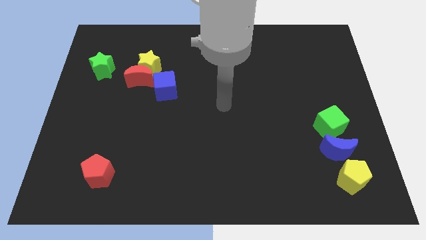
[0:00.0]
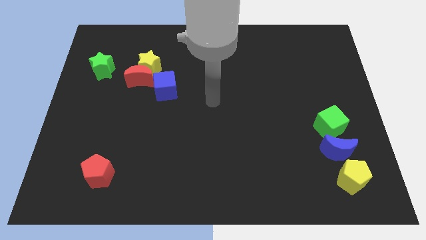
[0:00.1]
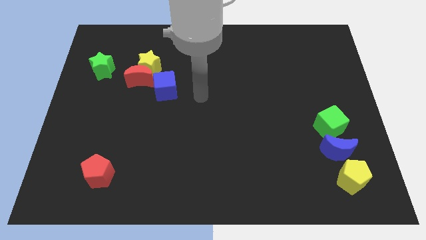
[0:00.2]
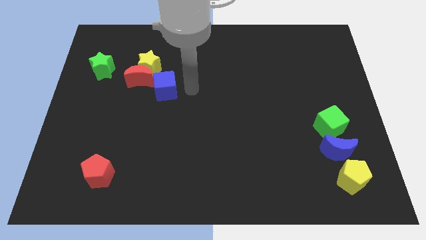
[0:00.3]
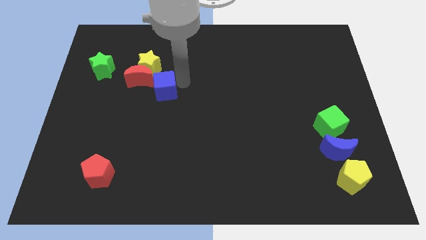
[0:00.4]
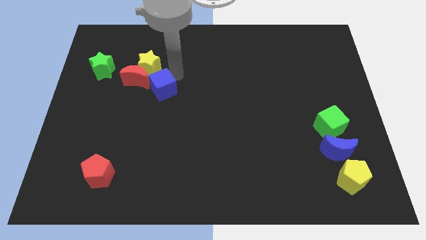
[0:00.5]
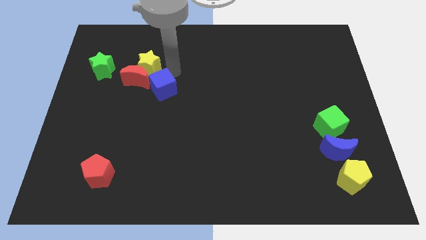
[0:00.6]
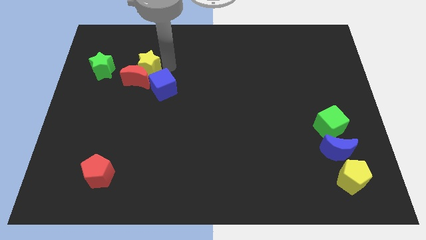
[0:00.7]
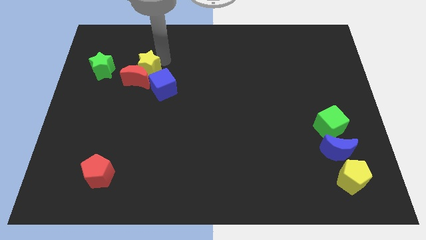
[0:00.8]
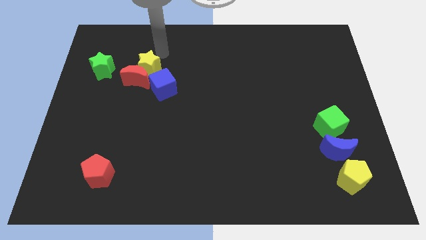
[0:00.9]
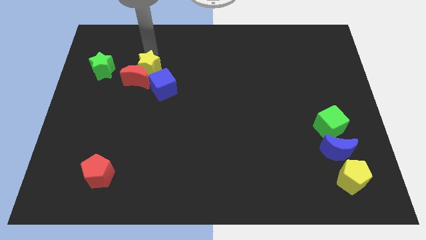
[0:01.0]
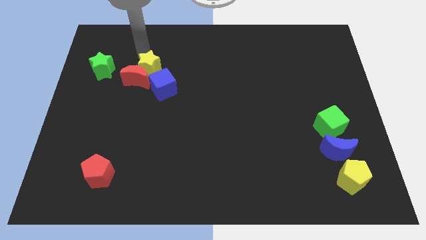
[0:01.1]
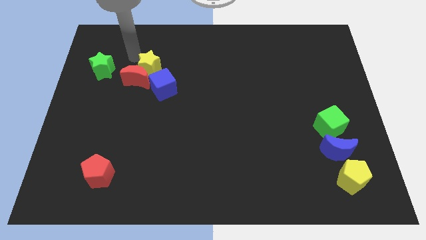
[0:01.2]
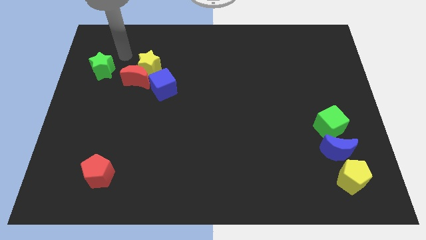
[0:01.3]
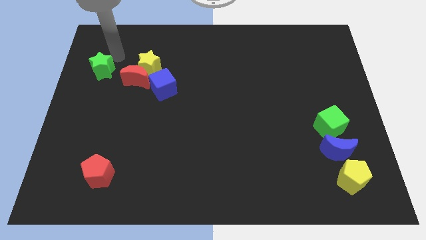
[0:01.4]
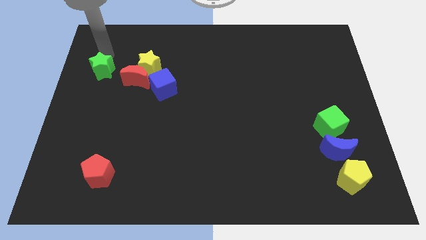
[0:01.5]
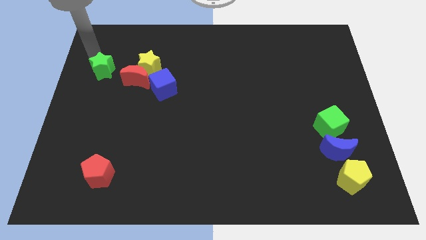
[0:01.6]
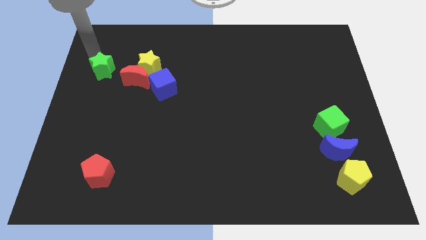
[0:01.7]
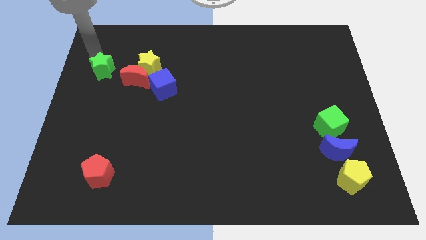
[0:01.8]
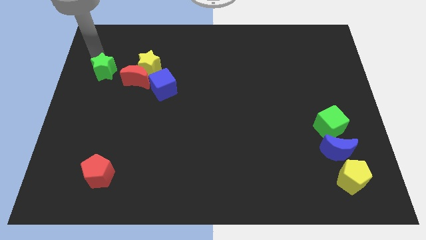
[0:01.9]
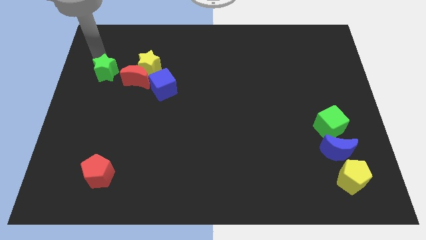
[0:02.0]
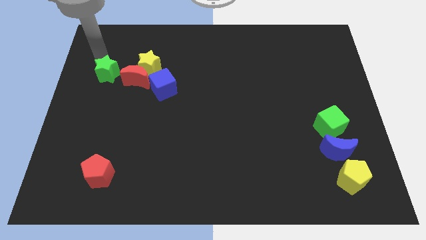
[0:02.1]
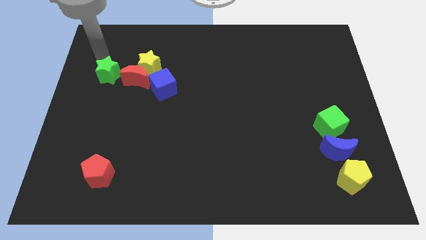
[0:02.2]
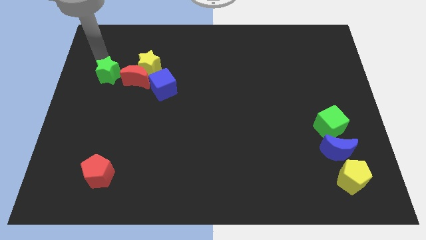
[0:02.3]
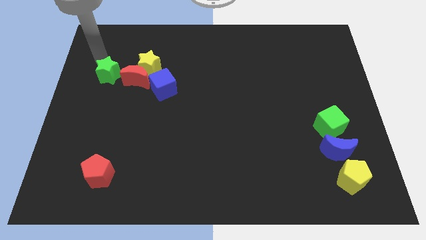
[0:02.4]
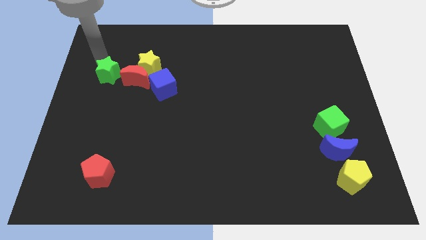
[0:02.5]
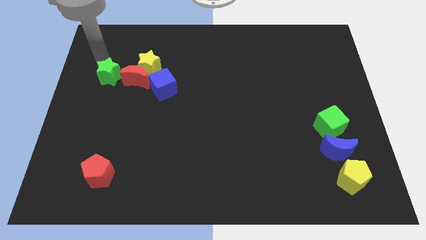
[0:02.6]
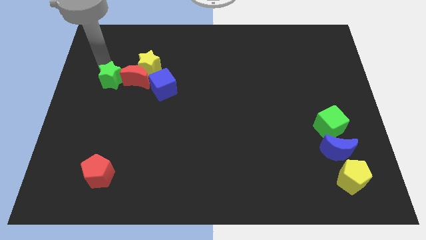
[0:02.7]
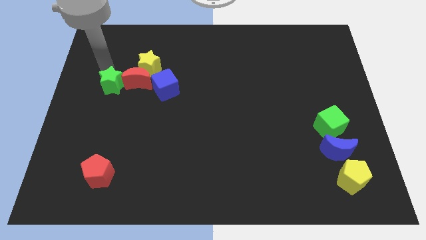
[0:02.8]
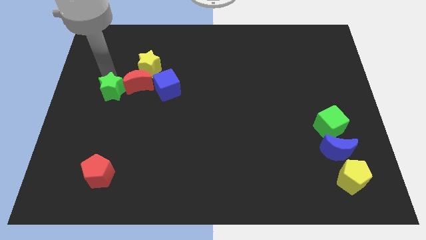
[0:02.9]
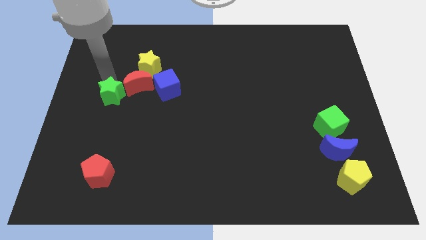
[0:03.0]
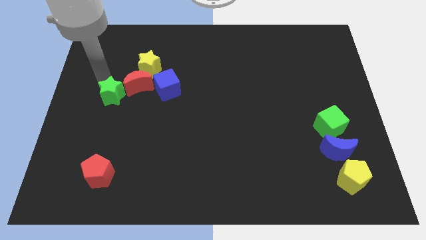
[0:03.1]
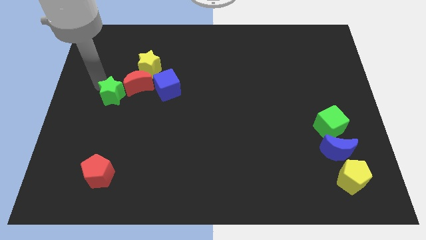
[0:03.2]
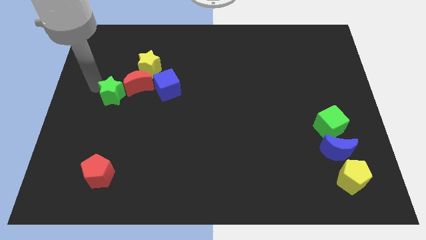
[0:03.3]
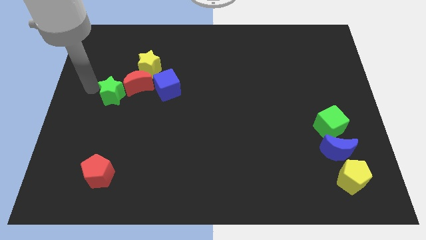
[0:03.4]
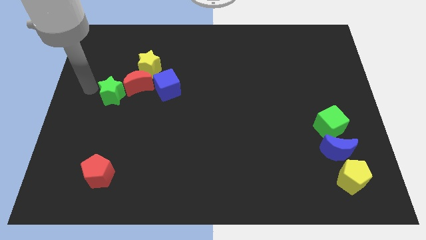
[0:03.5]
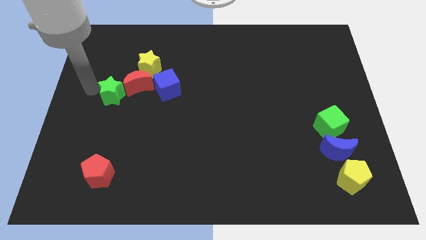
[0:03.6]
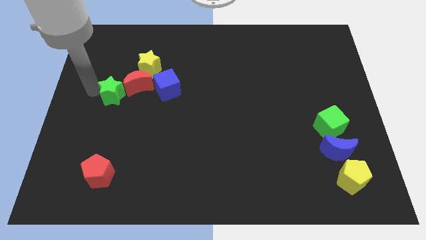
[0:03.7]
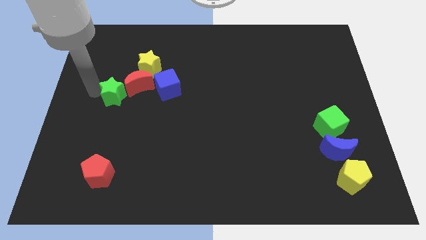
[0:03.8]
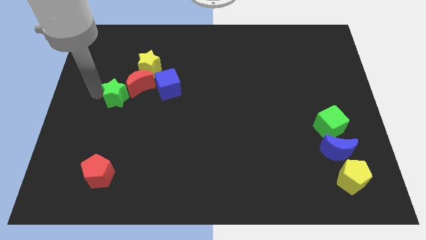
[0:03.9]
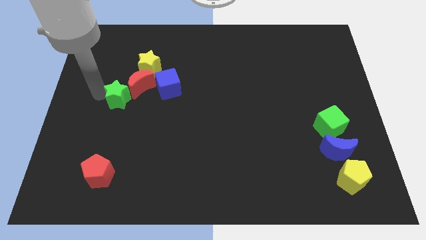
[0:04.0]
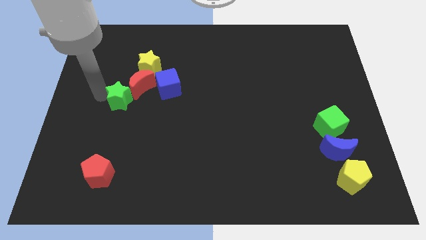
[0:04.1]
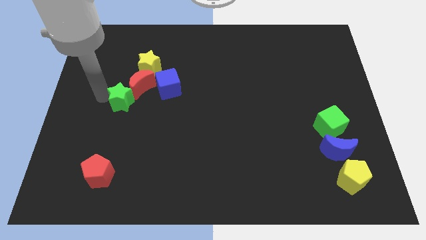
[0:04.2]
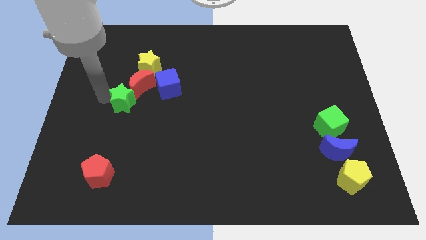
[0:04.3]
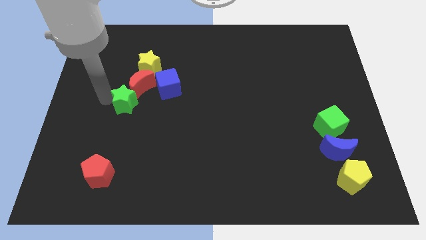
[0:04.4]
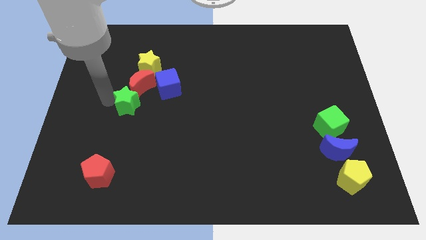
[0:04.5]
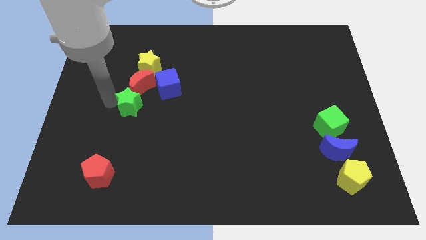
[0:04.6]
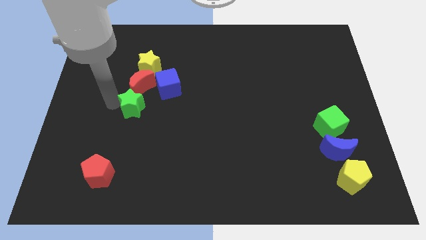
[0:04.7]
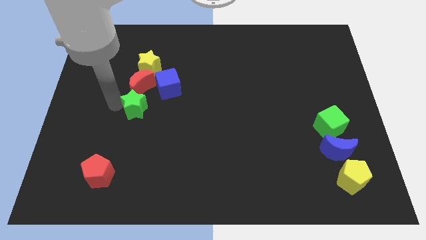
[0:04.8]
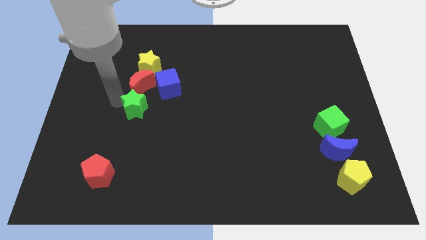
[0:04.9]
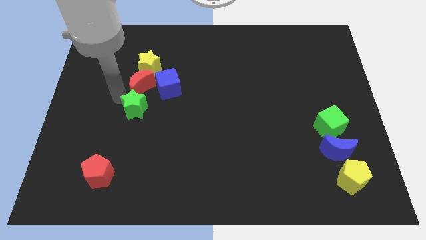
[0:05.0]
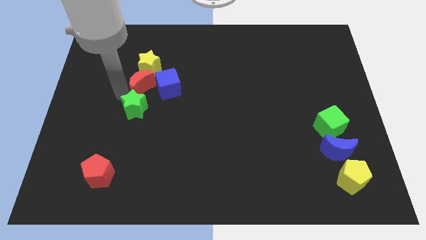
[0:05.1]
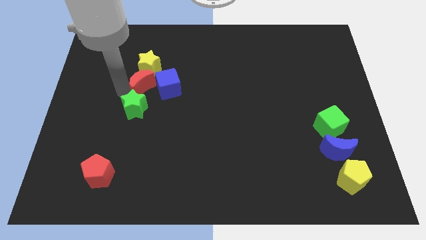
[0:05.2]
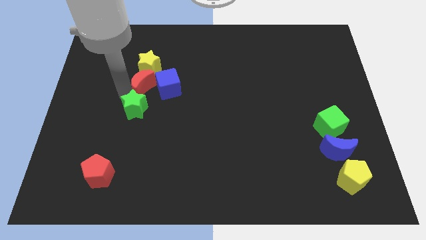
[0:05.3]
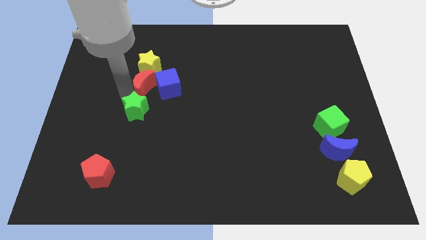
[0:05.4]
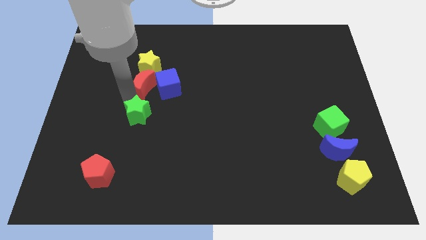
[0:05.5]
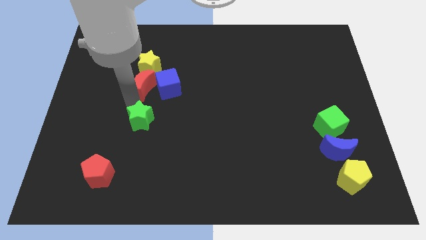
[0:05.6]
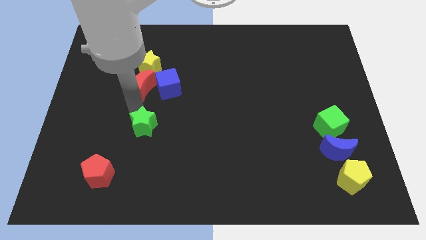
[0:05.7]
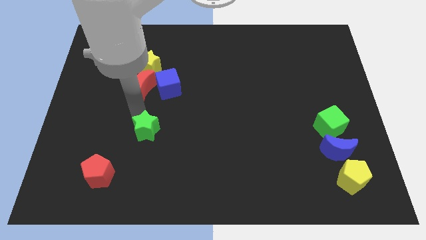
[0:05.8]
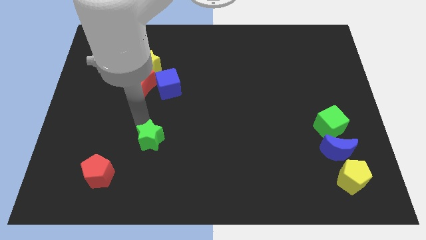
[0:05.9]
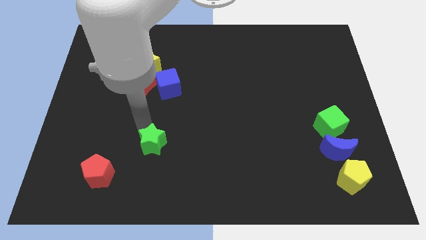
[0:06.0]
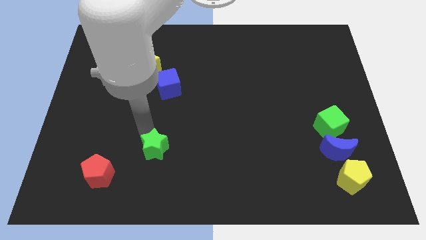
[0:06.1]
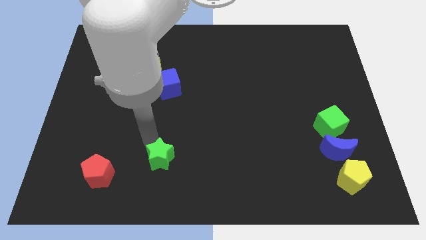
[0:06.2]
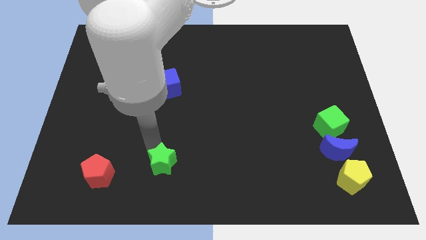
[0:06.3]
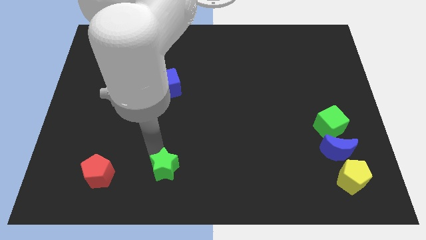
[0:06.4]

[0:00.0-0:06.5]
push the green star to the bottom
